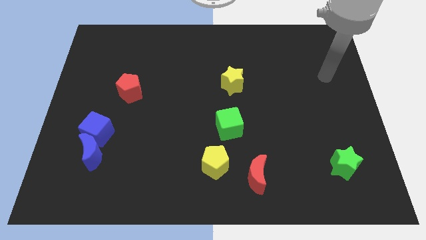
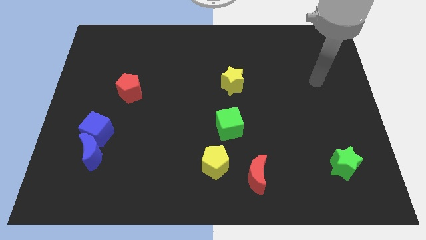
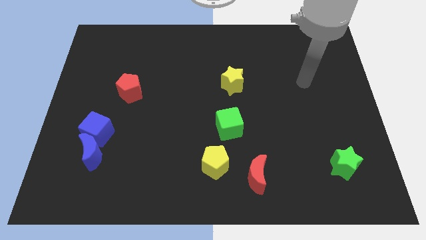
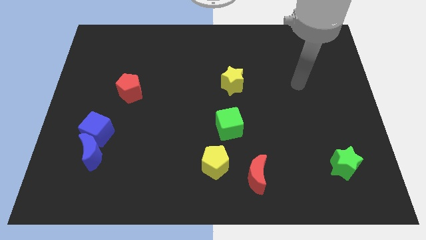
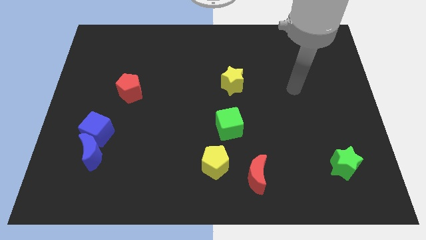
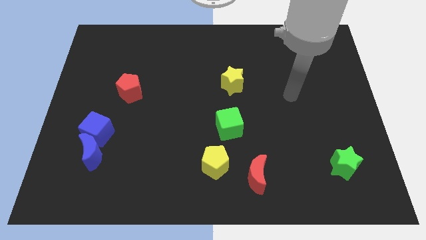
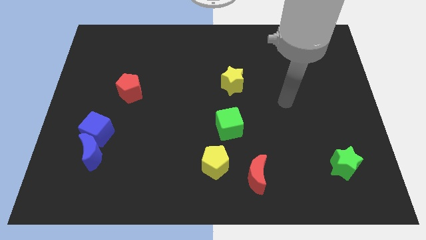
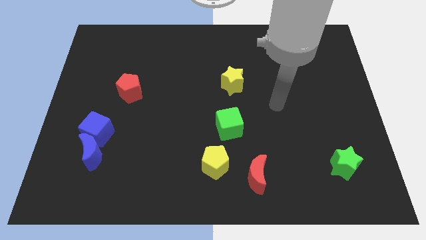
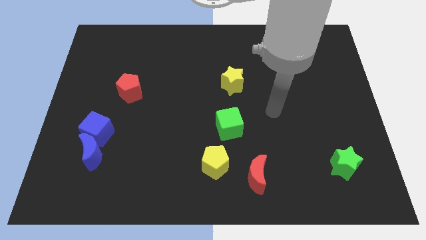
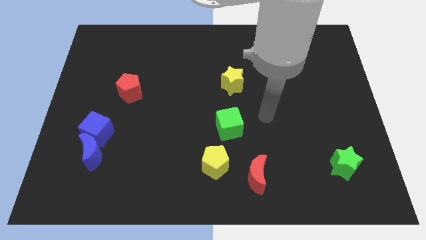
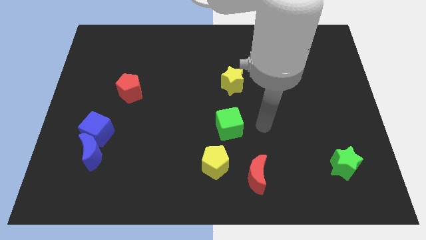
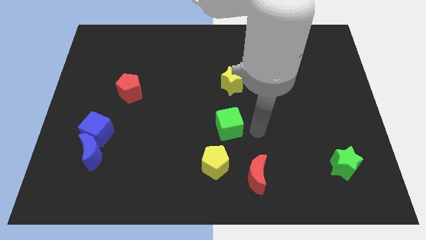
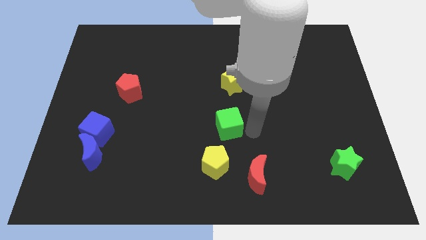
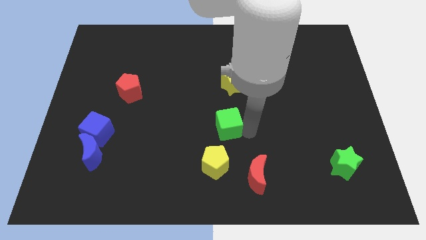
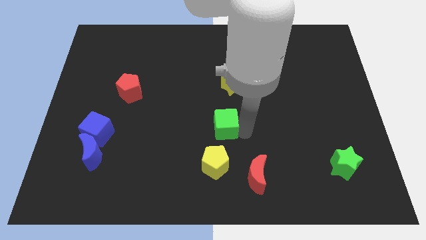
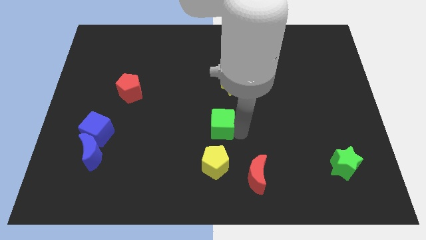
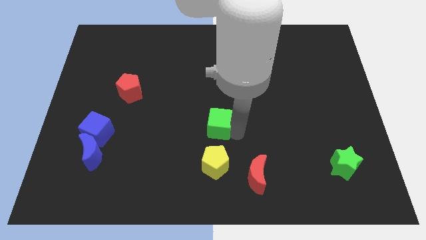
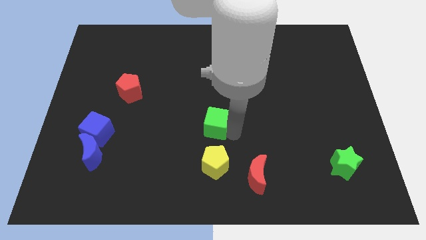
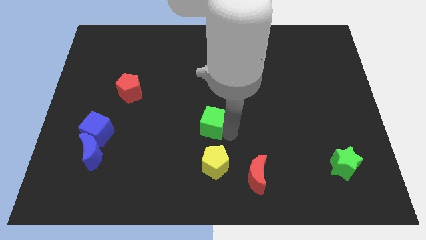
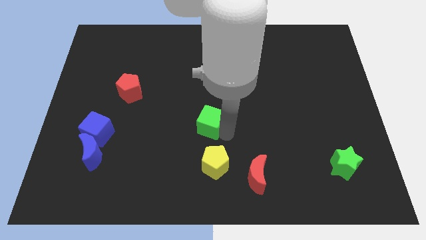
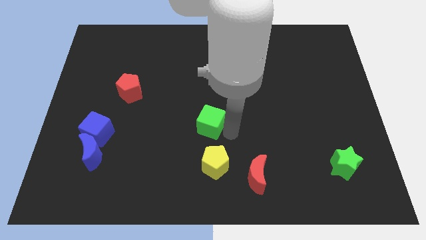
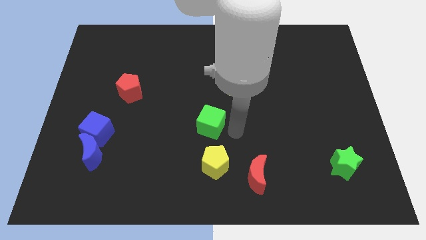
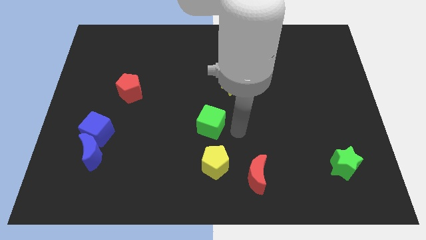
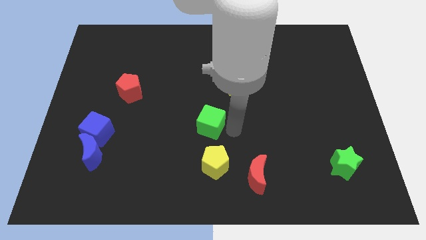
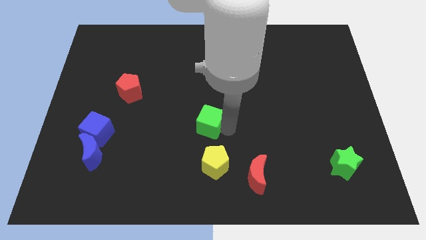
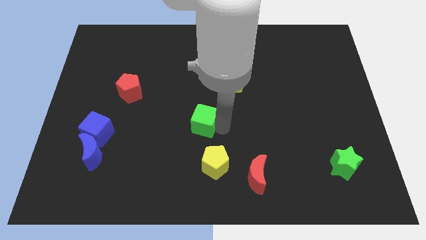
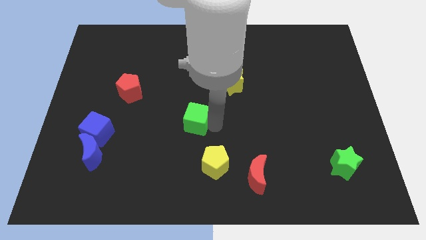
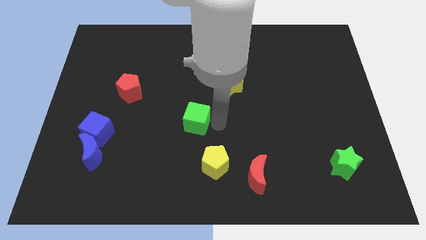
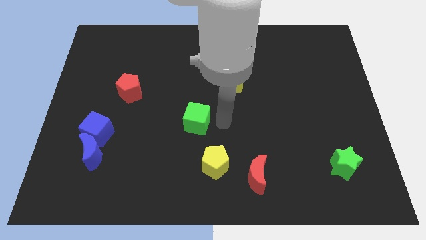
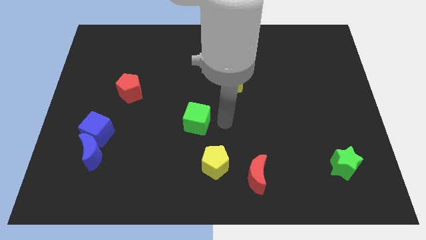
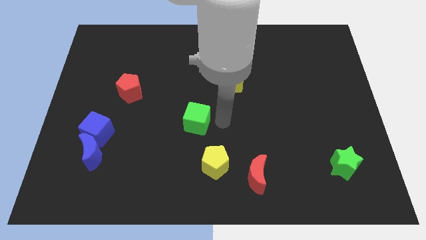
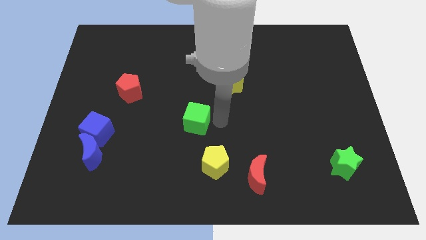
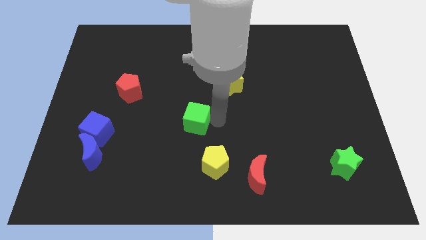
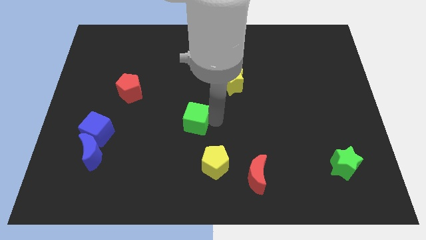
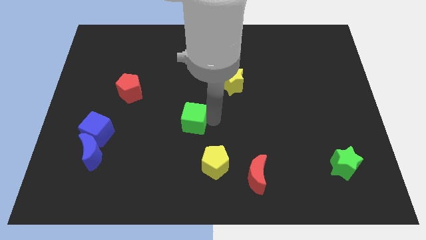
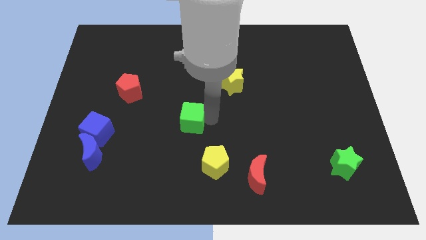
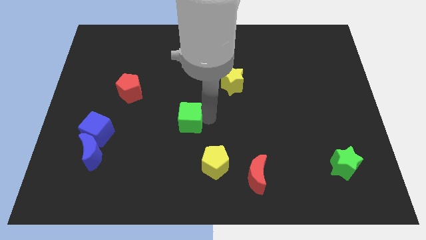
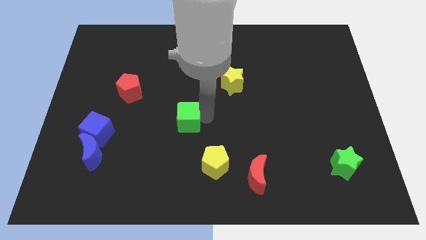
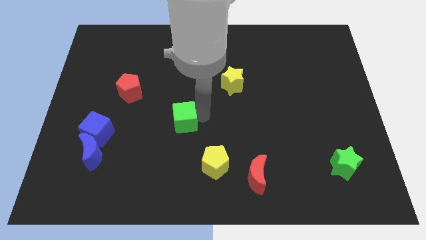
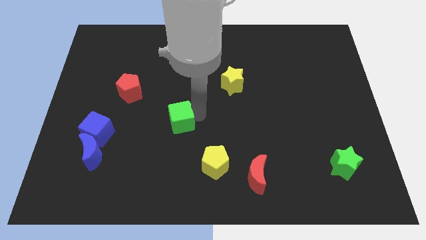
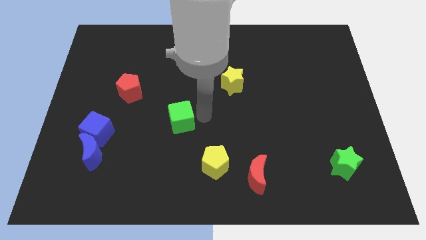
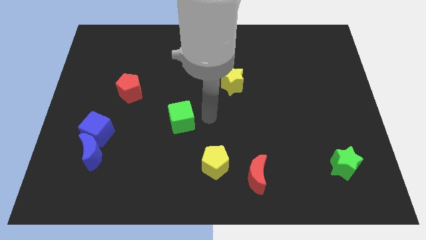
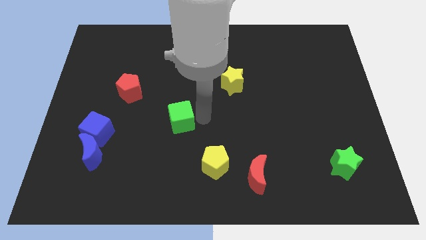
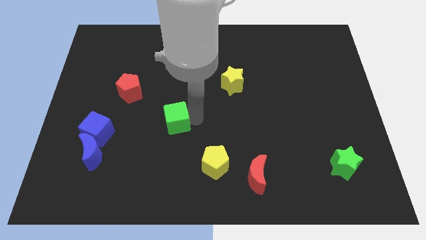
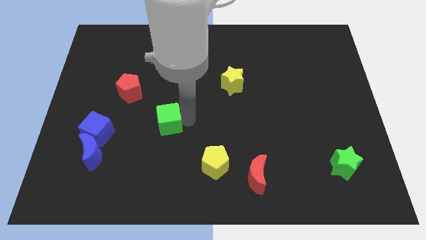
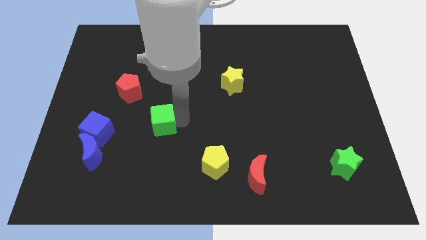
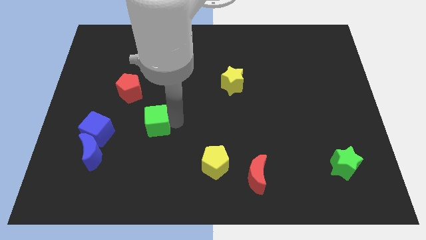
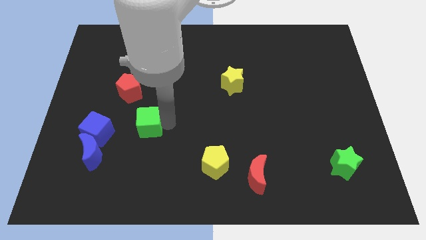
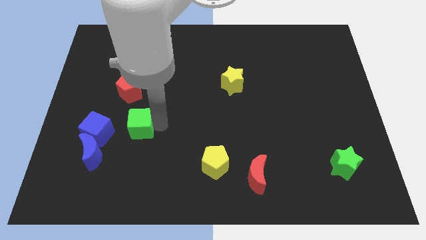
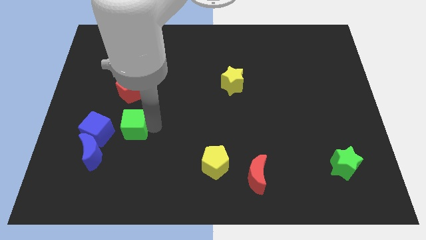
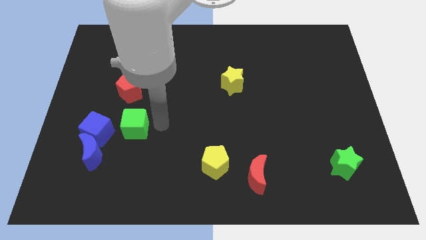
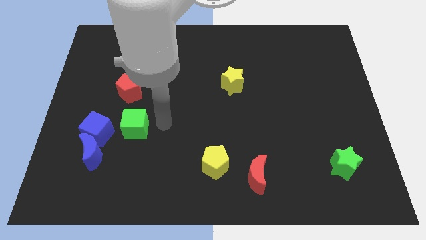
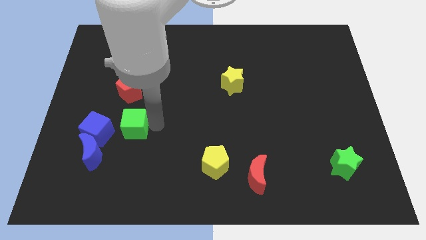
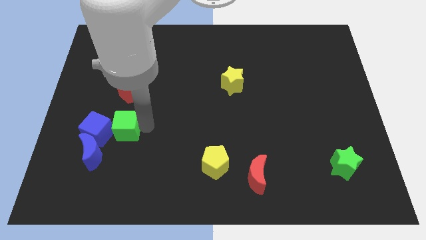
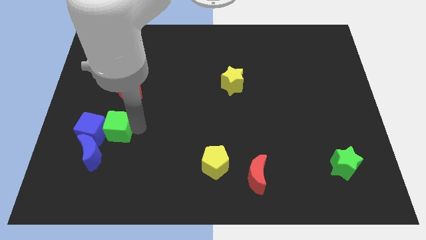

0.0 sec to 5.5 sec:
put the green cube next to the blue cube

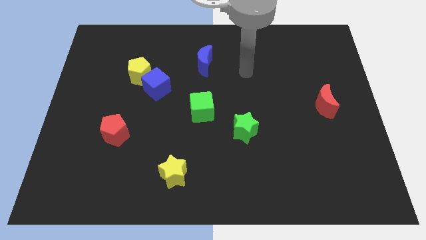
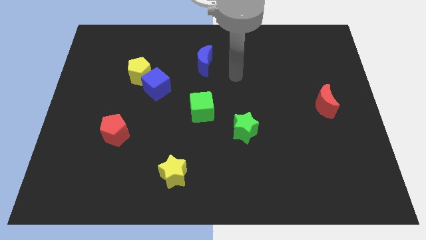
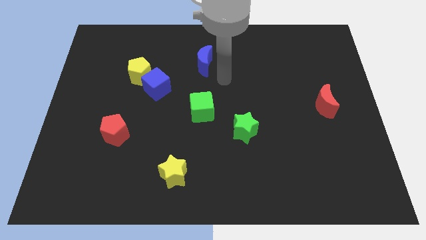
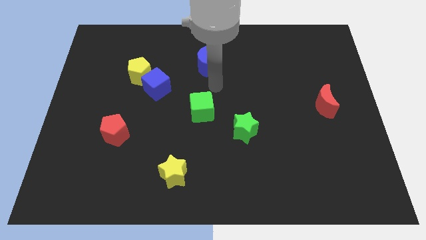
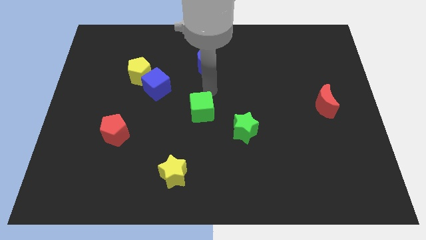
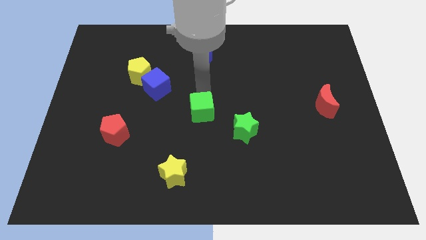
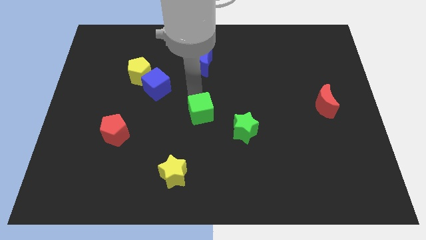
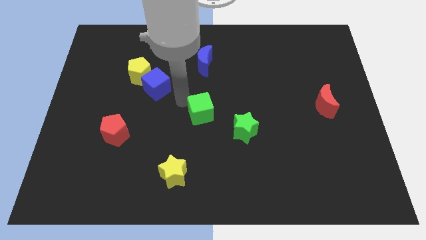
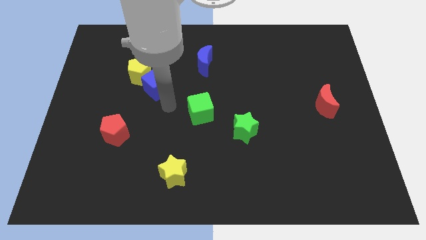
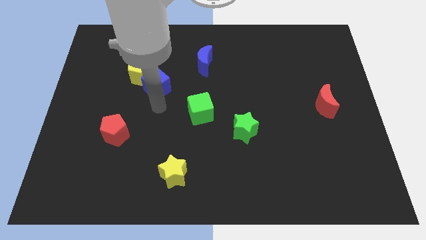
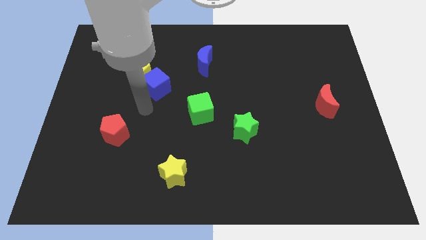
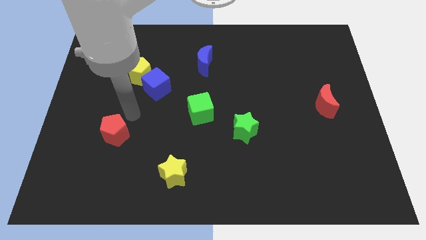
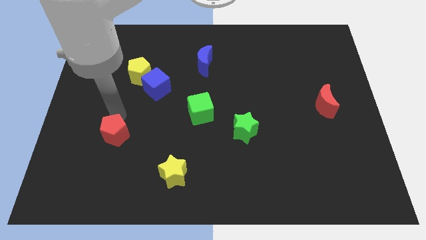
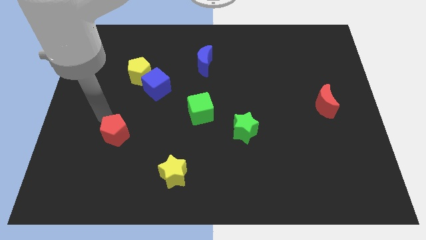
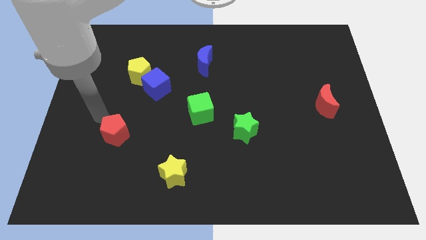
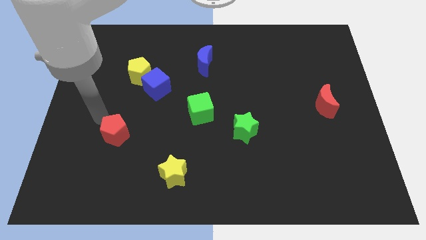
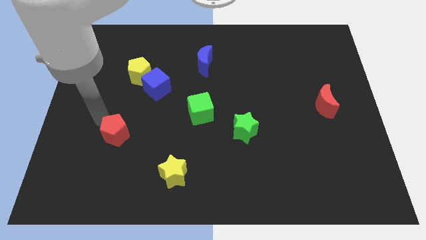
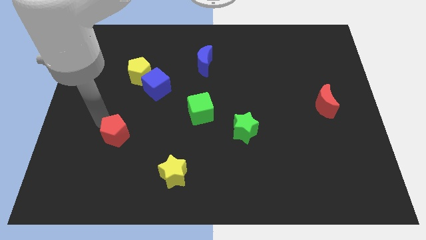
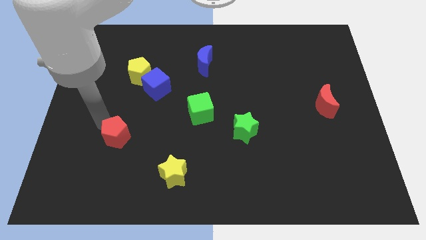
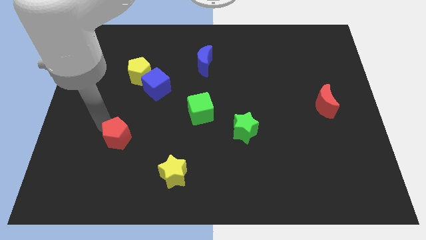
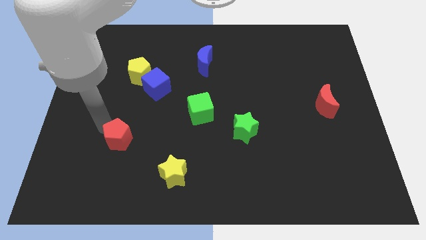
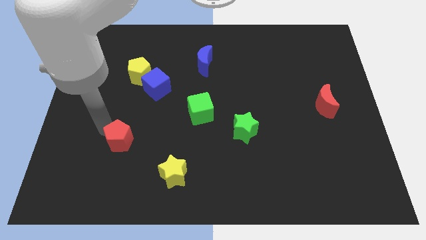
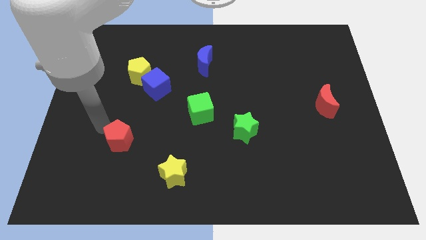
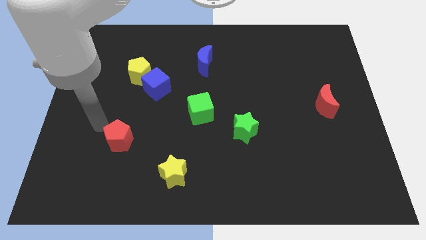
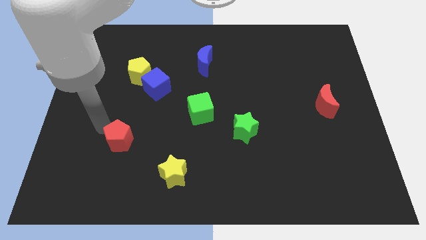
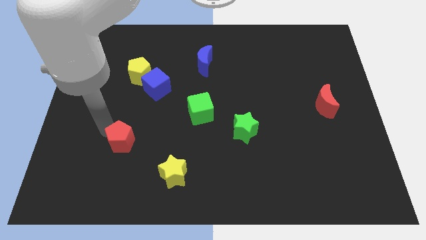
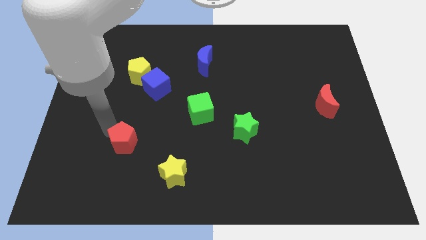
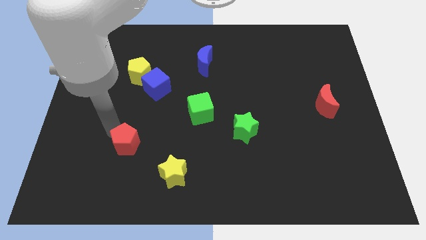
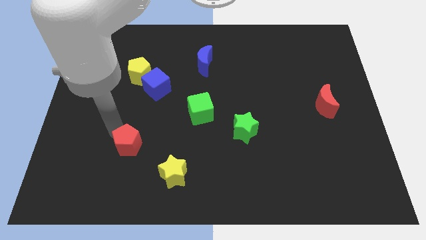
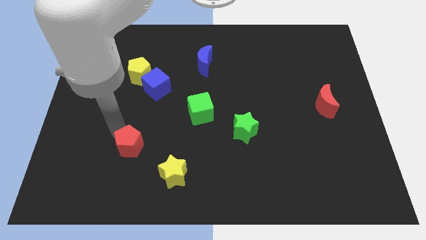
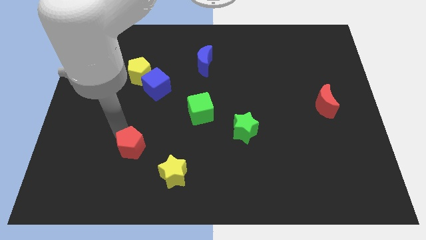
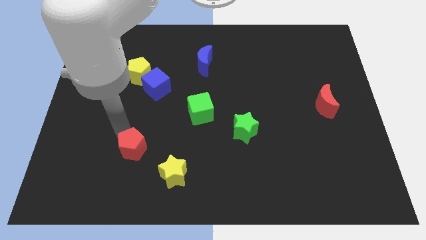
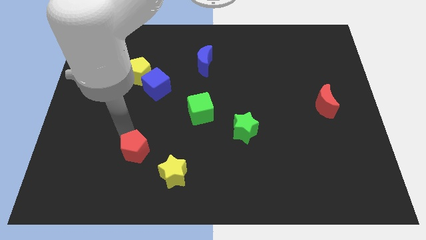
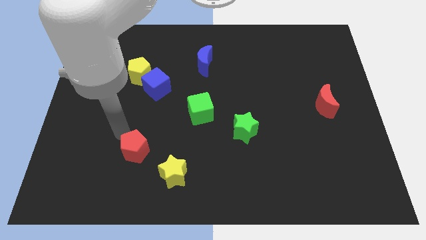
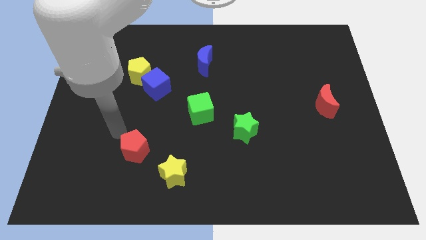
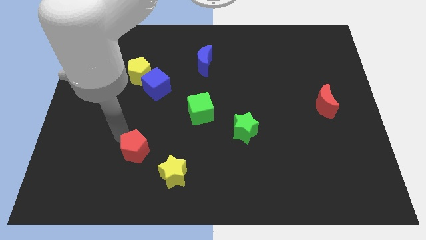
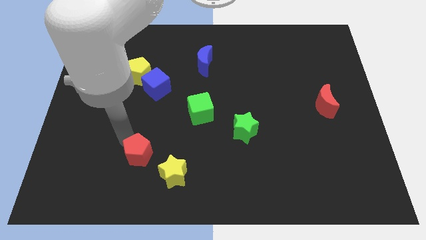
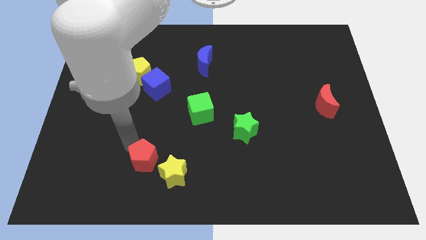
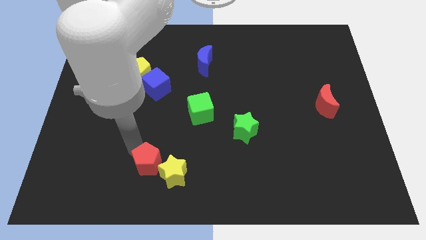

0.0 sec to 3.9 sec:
slide the red pentagon to the yellow star
